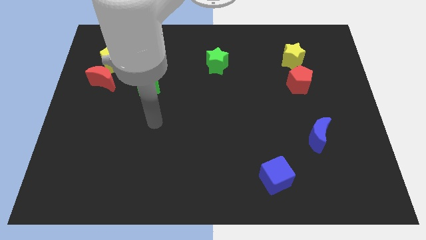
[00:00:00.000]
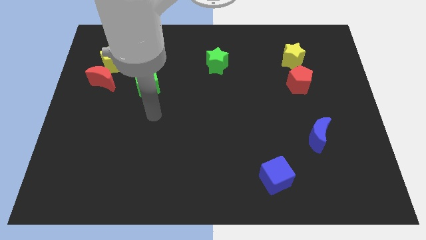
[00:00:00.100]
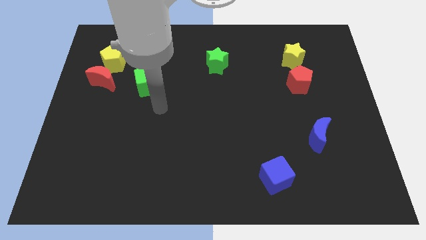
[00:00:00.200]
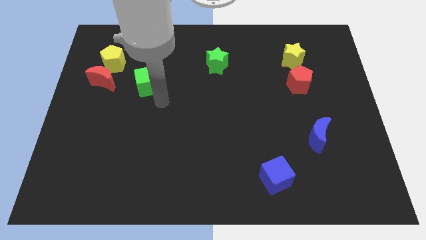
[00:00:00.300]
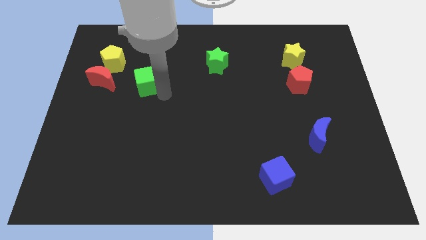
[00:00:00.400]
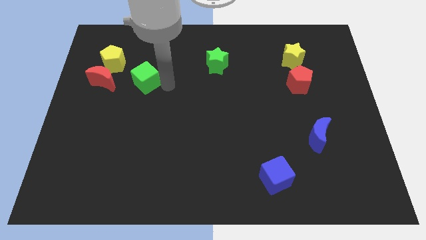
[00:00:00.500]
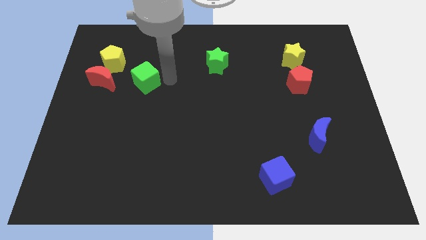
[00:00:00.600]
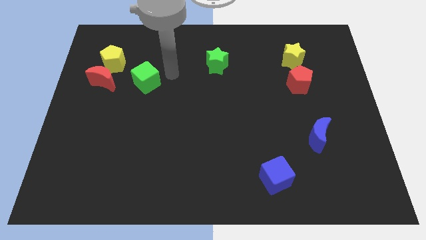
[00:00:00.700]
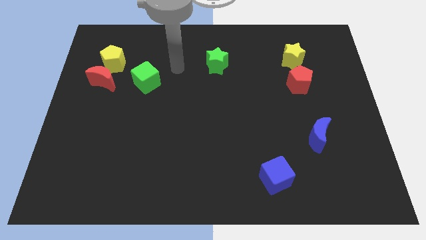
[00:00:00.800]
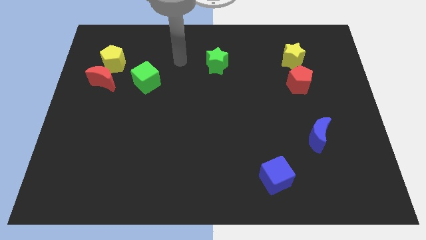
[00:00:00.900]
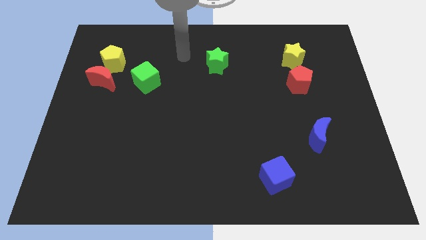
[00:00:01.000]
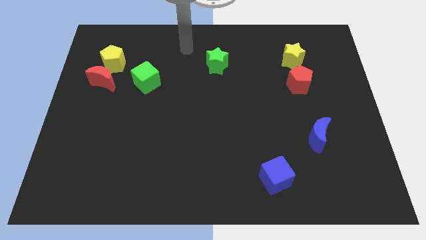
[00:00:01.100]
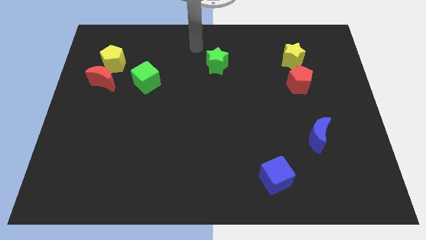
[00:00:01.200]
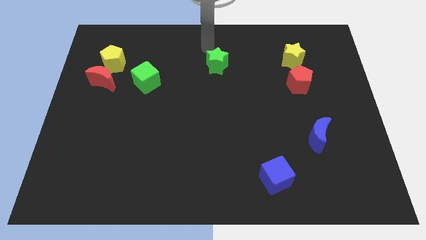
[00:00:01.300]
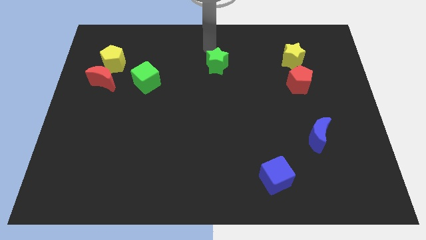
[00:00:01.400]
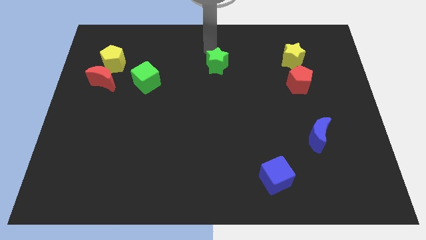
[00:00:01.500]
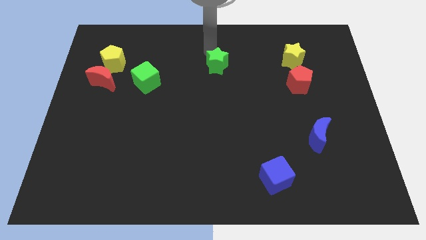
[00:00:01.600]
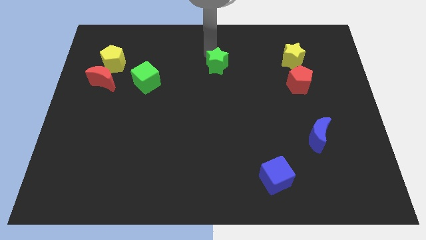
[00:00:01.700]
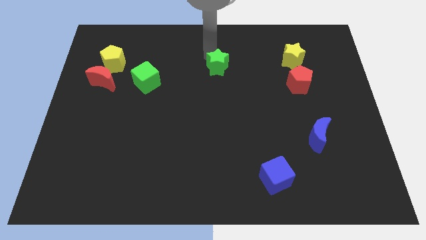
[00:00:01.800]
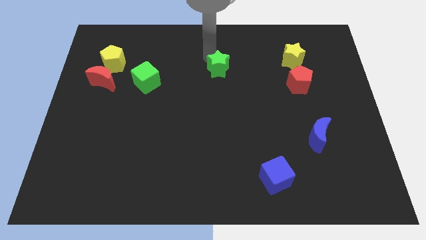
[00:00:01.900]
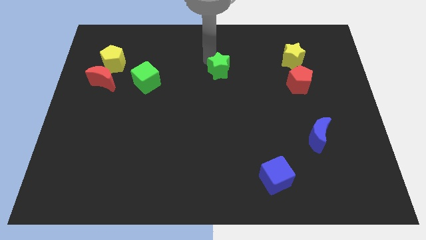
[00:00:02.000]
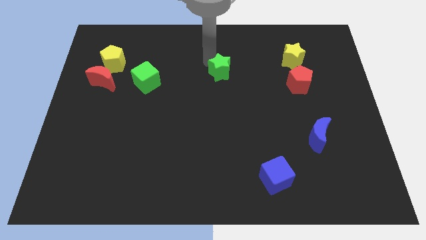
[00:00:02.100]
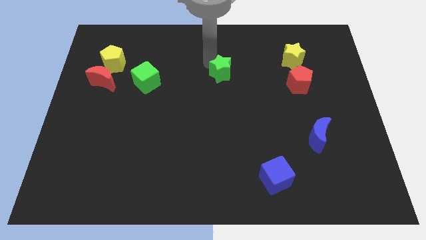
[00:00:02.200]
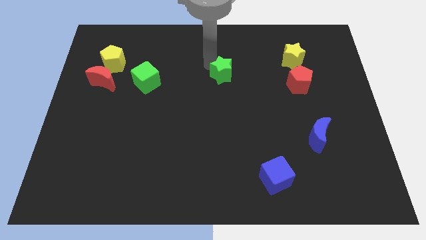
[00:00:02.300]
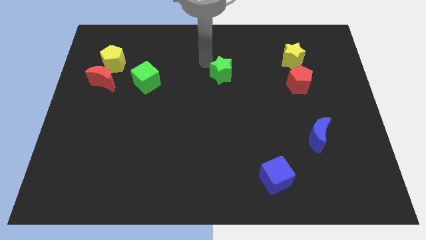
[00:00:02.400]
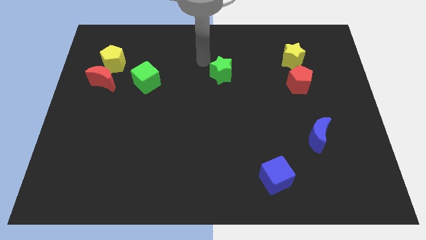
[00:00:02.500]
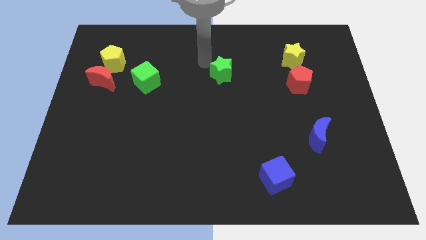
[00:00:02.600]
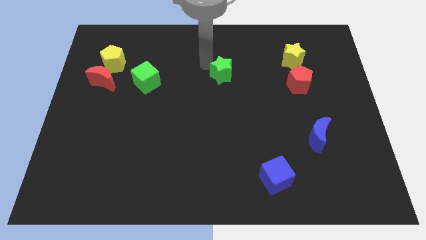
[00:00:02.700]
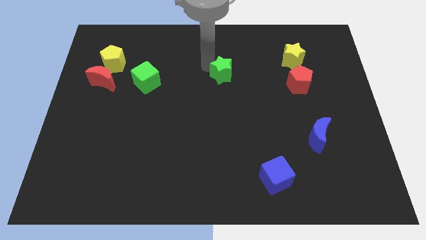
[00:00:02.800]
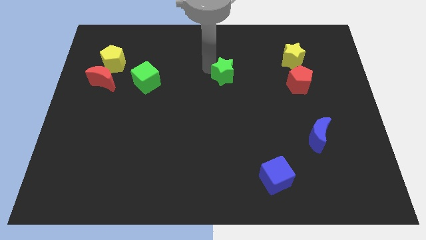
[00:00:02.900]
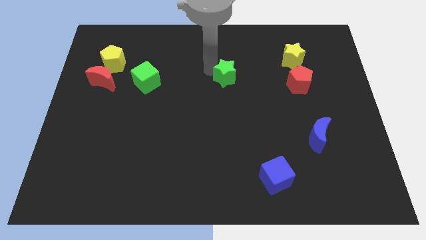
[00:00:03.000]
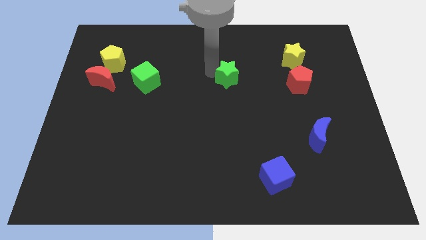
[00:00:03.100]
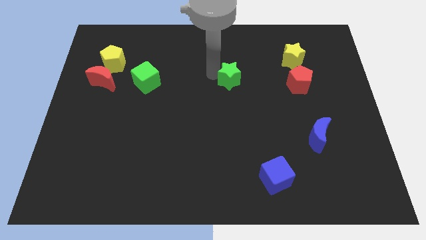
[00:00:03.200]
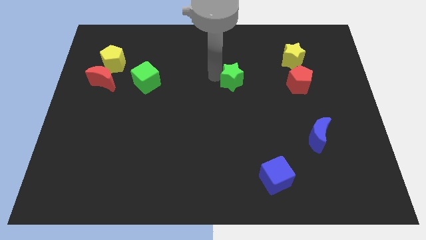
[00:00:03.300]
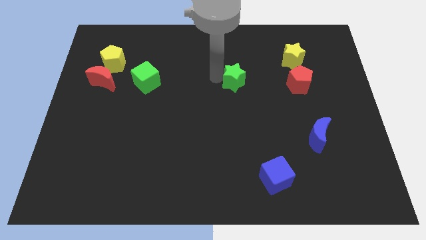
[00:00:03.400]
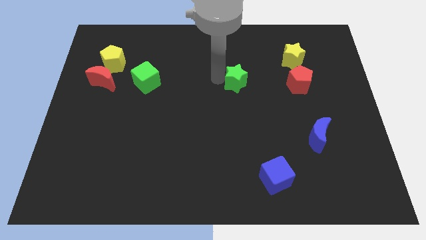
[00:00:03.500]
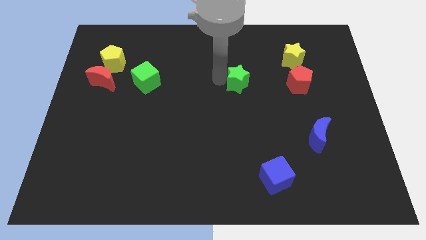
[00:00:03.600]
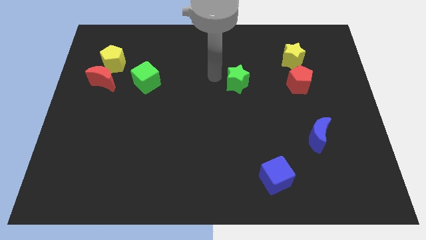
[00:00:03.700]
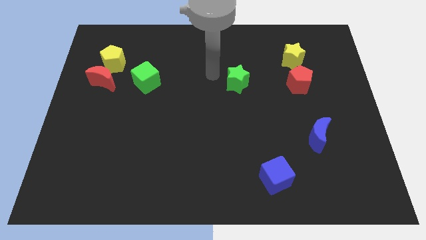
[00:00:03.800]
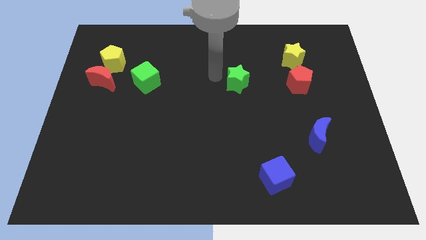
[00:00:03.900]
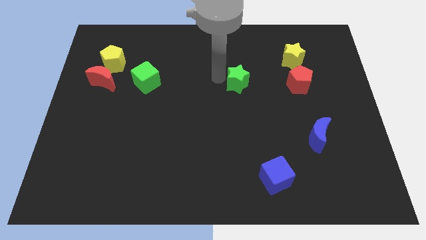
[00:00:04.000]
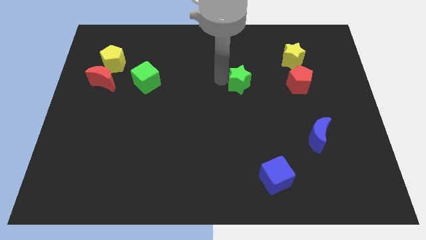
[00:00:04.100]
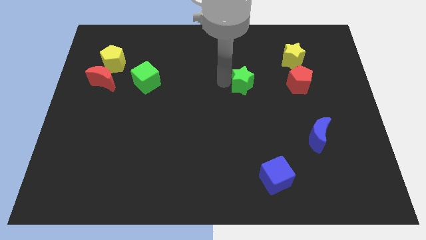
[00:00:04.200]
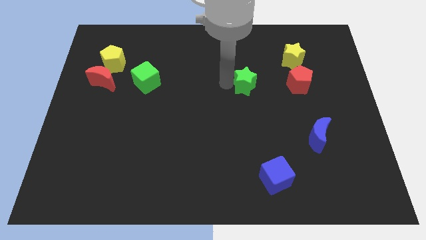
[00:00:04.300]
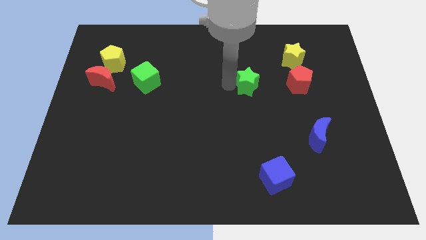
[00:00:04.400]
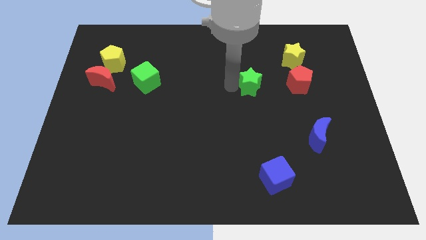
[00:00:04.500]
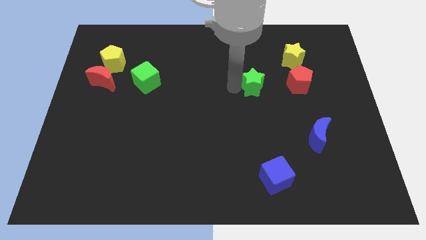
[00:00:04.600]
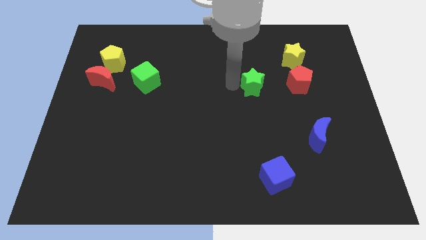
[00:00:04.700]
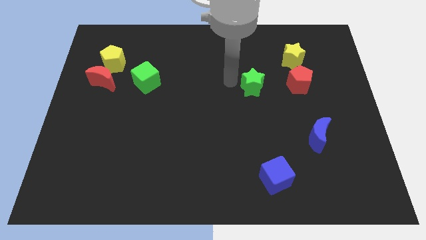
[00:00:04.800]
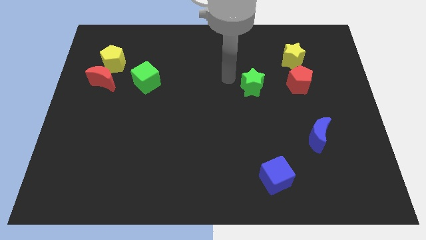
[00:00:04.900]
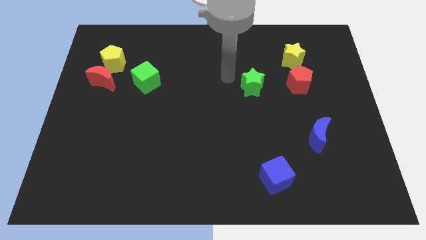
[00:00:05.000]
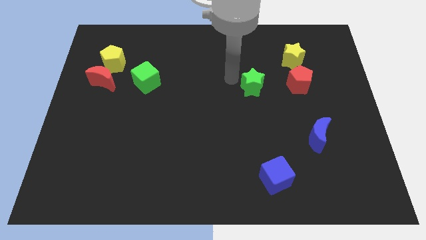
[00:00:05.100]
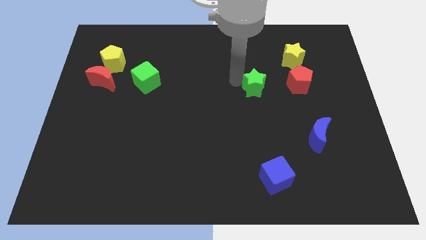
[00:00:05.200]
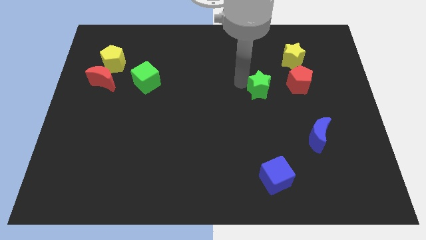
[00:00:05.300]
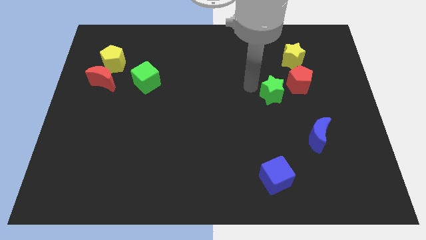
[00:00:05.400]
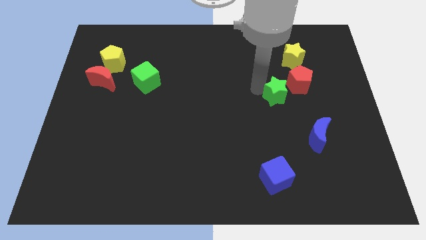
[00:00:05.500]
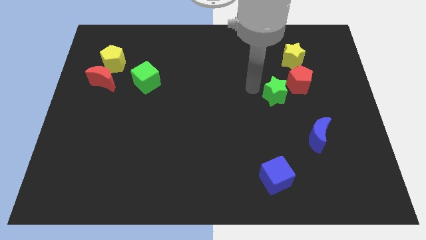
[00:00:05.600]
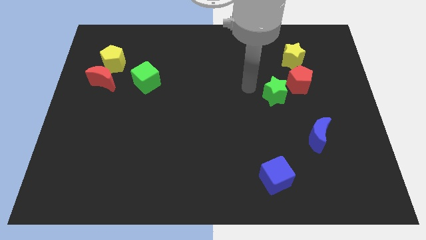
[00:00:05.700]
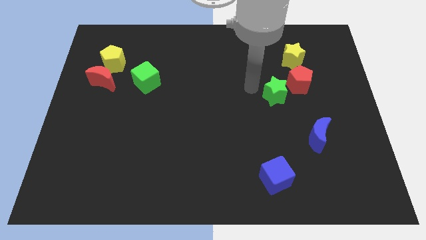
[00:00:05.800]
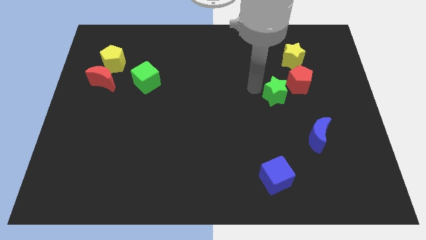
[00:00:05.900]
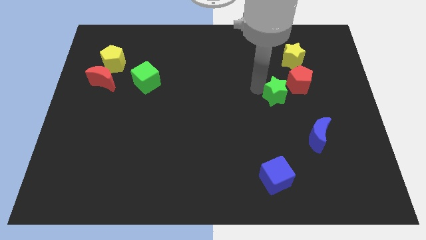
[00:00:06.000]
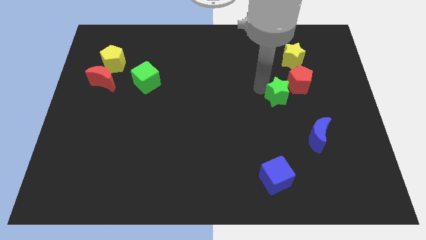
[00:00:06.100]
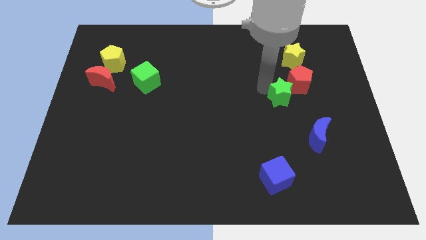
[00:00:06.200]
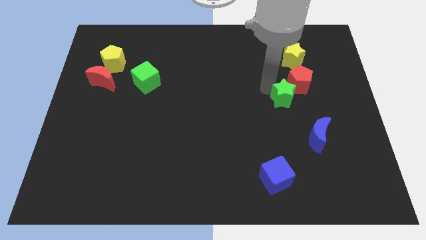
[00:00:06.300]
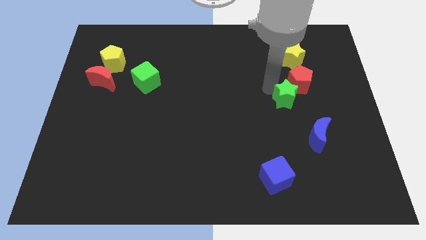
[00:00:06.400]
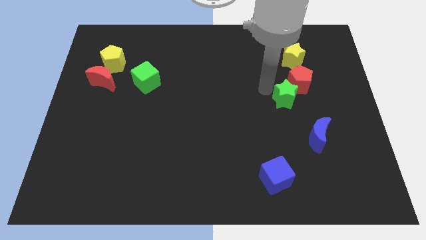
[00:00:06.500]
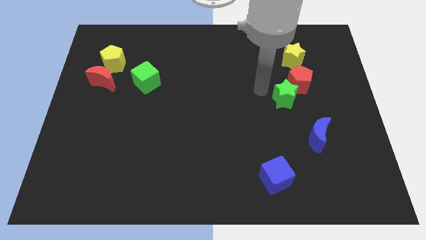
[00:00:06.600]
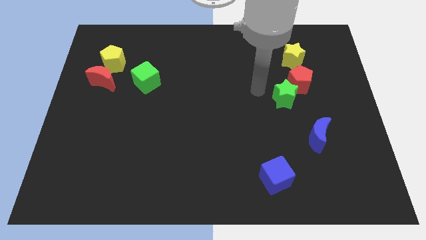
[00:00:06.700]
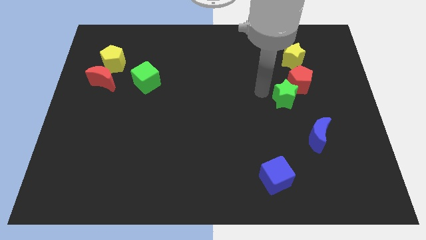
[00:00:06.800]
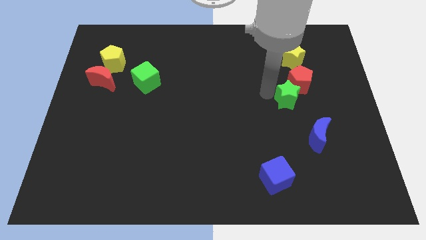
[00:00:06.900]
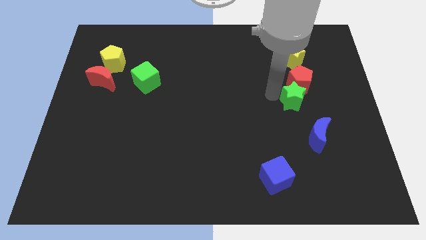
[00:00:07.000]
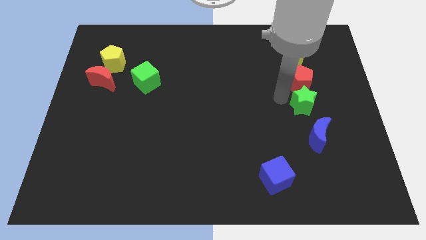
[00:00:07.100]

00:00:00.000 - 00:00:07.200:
move the green star to the bottom right side of the red pentagon
